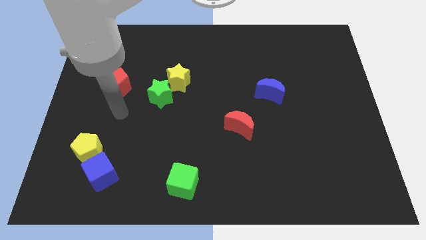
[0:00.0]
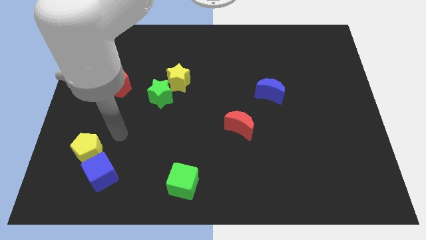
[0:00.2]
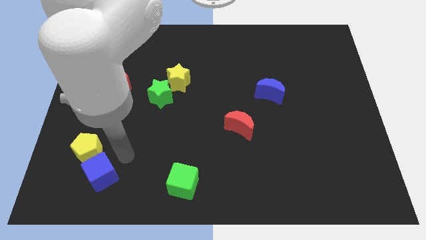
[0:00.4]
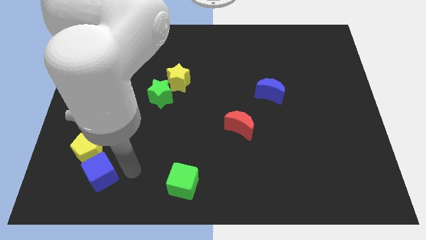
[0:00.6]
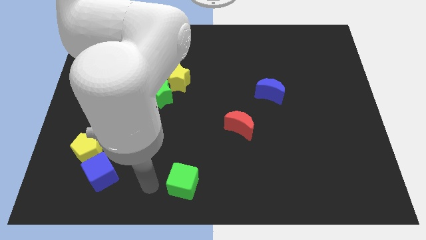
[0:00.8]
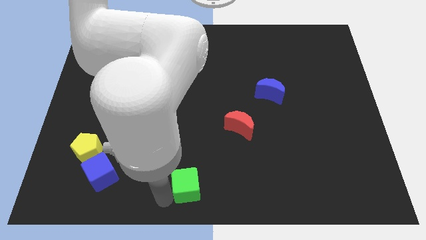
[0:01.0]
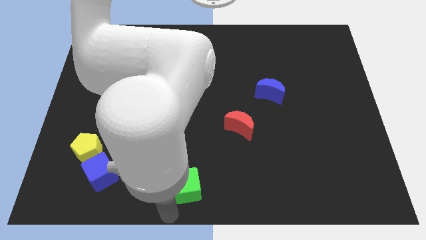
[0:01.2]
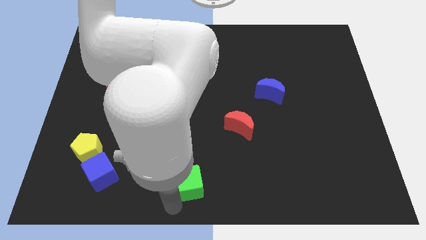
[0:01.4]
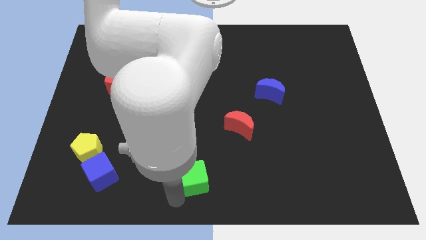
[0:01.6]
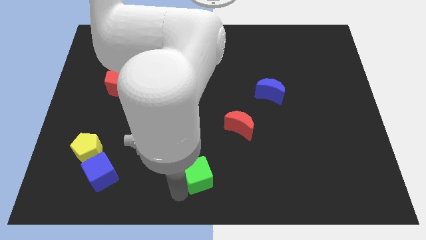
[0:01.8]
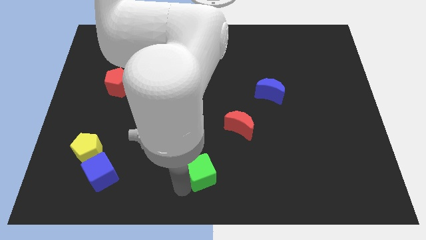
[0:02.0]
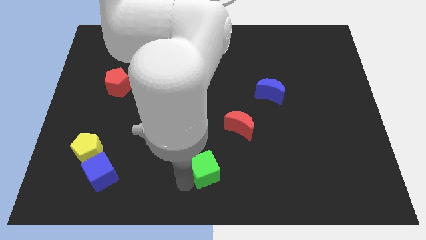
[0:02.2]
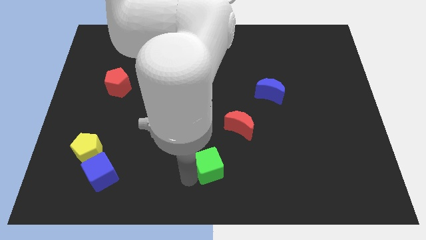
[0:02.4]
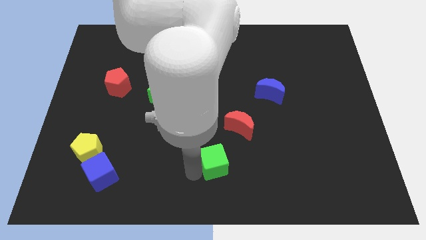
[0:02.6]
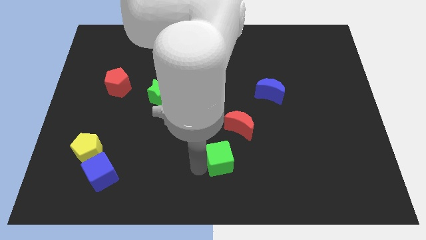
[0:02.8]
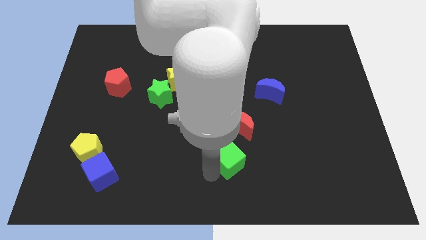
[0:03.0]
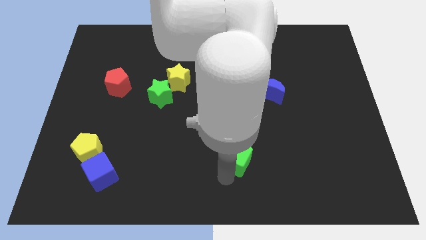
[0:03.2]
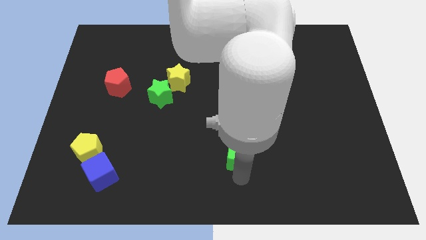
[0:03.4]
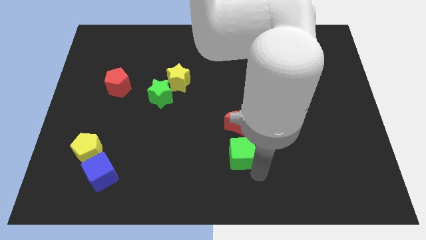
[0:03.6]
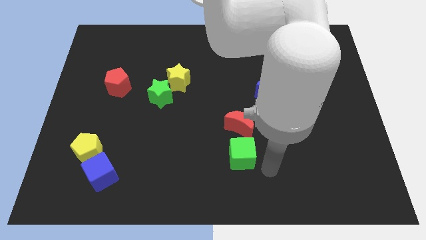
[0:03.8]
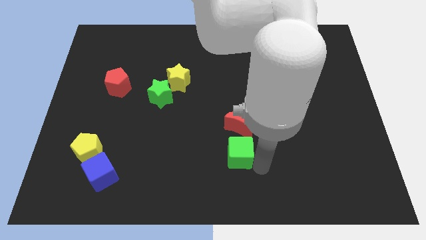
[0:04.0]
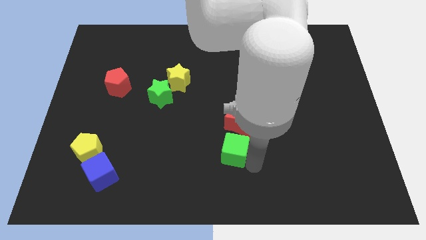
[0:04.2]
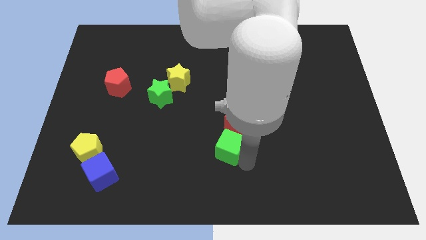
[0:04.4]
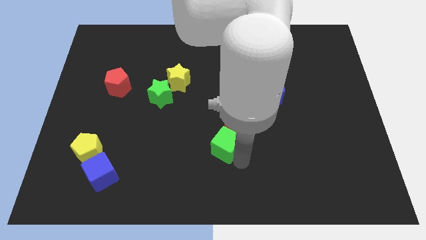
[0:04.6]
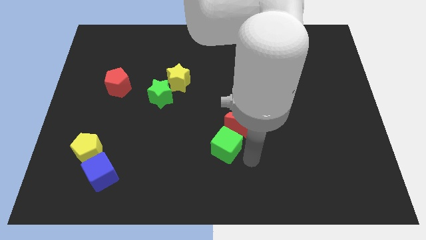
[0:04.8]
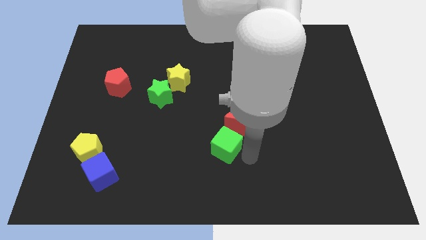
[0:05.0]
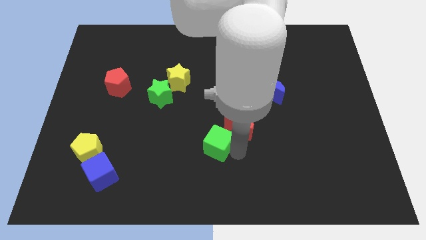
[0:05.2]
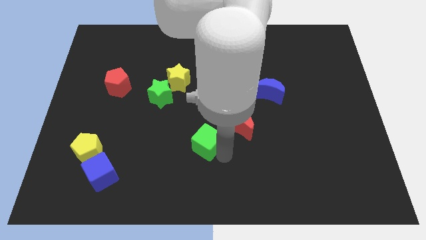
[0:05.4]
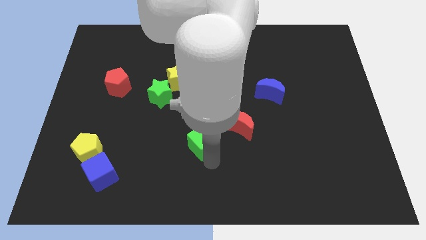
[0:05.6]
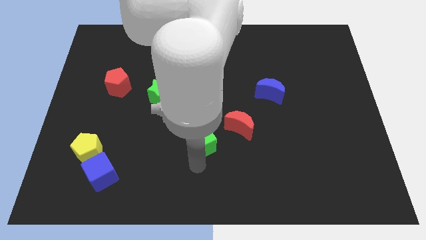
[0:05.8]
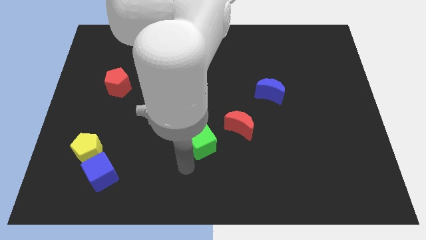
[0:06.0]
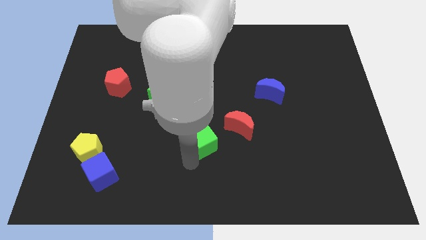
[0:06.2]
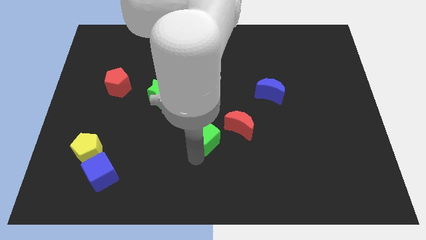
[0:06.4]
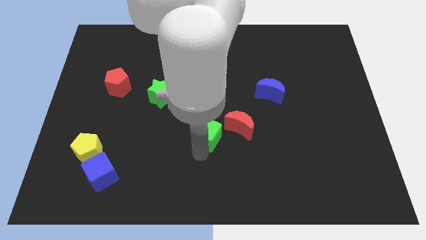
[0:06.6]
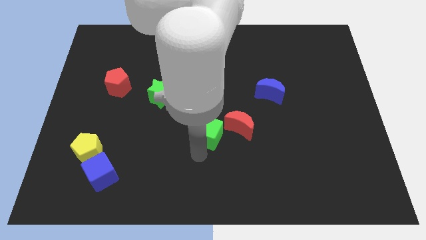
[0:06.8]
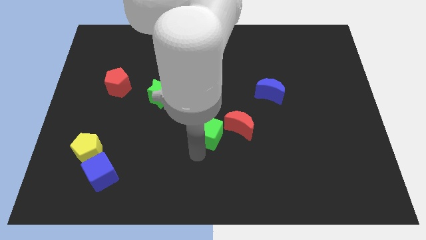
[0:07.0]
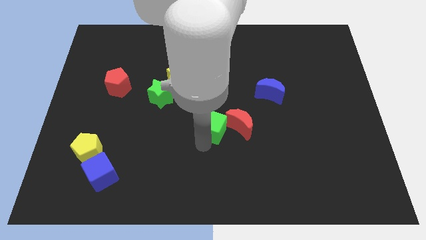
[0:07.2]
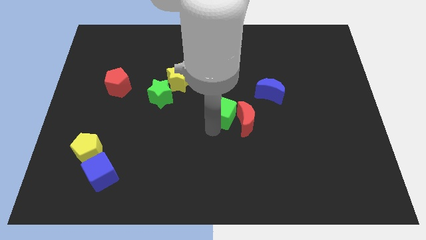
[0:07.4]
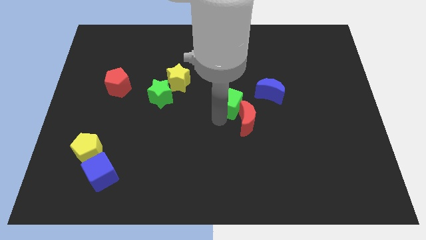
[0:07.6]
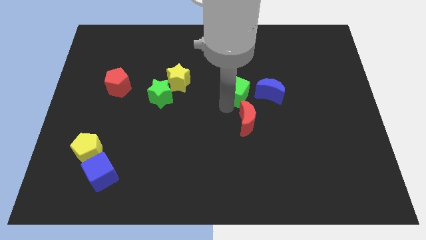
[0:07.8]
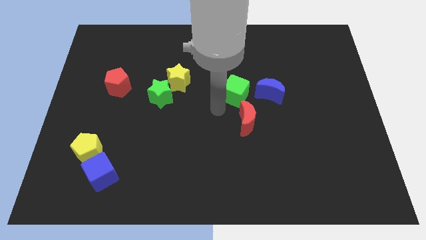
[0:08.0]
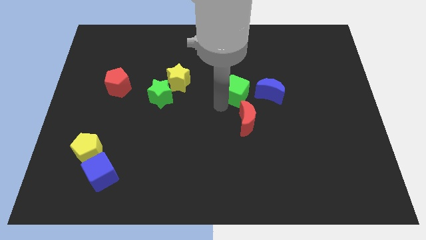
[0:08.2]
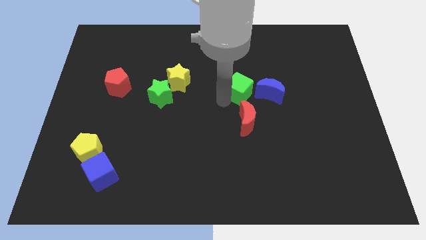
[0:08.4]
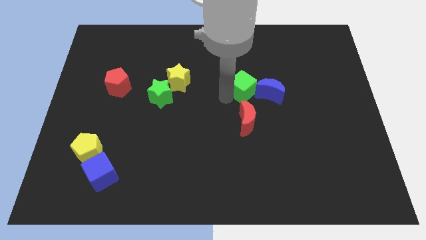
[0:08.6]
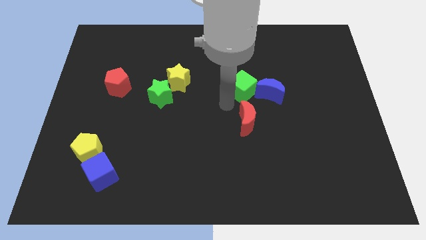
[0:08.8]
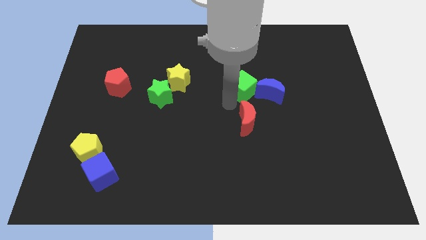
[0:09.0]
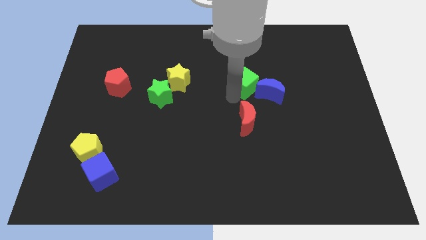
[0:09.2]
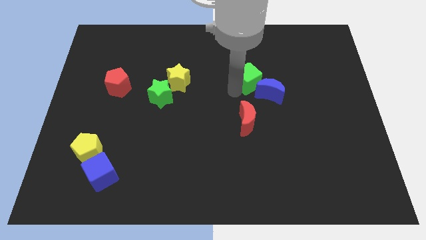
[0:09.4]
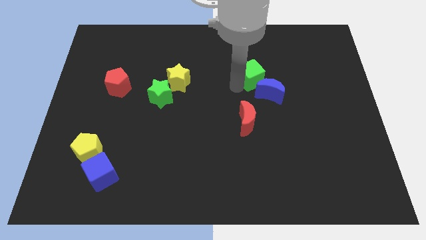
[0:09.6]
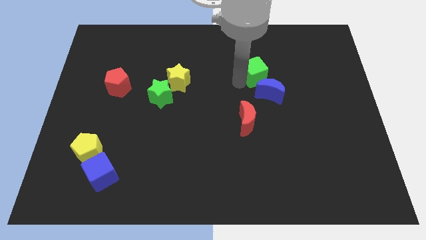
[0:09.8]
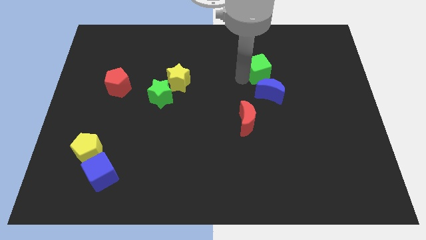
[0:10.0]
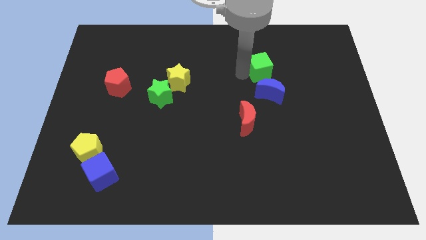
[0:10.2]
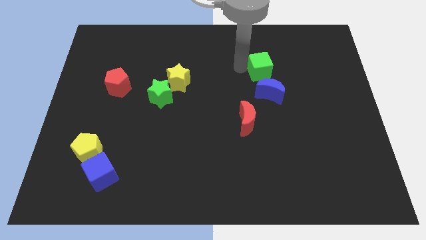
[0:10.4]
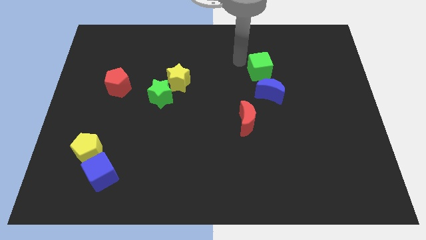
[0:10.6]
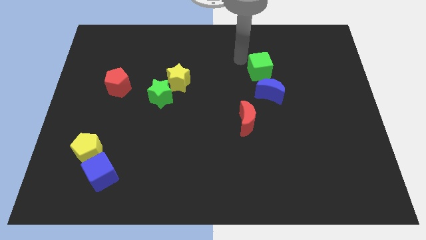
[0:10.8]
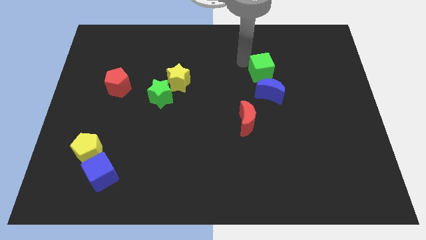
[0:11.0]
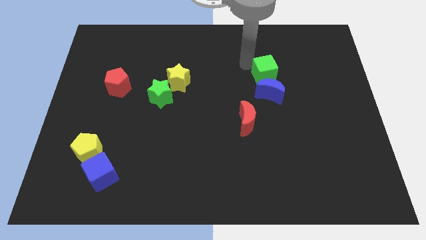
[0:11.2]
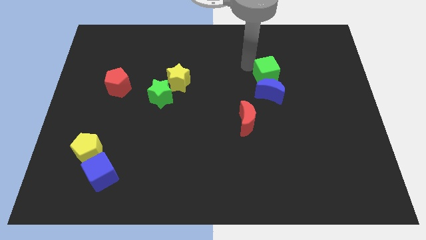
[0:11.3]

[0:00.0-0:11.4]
push the green cube diagonally up and to the right of the blue moon

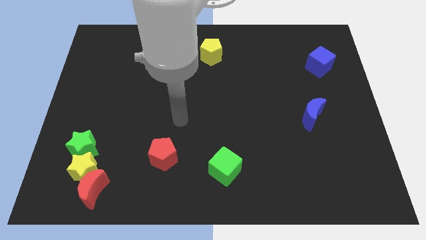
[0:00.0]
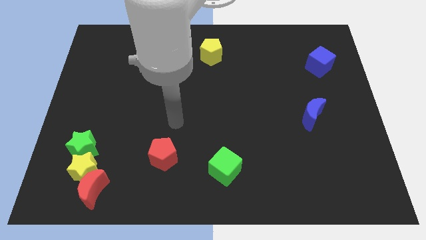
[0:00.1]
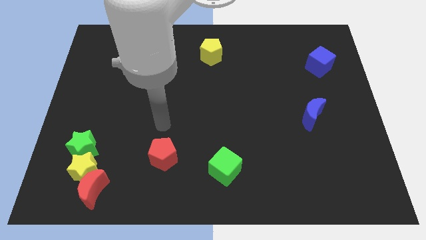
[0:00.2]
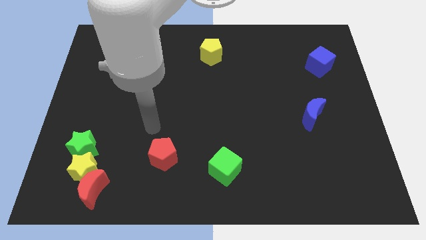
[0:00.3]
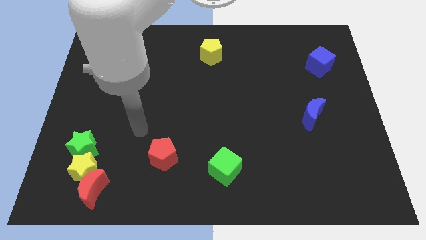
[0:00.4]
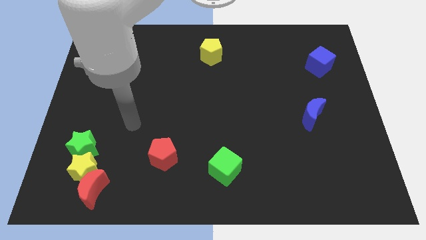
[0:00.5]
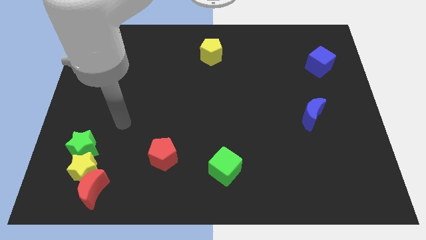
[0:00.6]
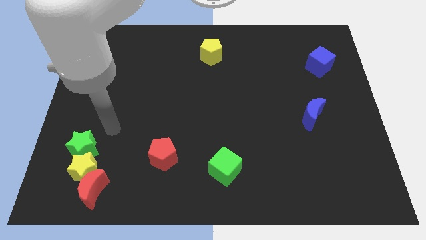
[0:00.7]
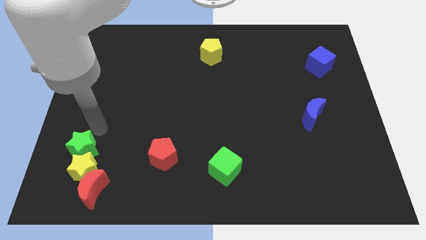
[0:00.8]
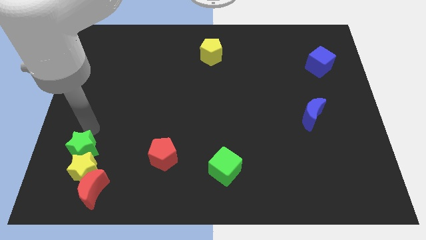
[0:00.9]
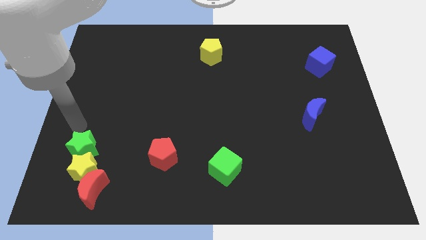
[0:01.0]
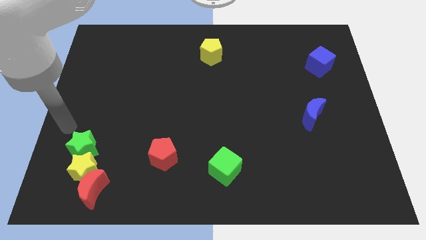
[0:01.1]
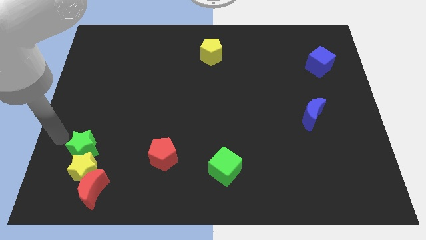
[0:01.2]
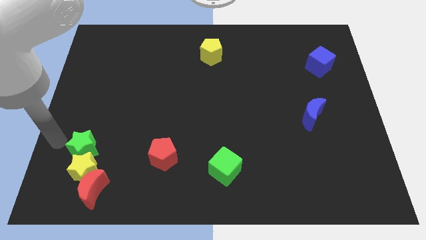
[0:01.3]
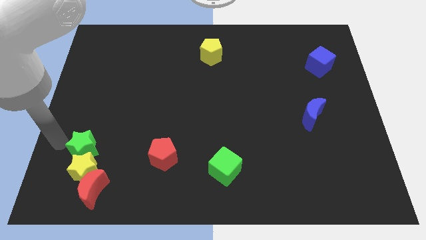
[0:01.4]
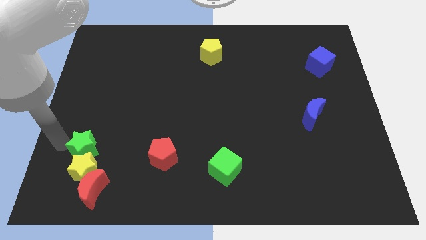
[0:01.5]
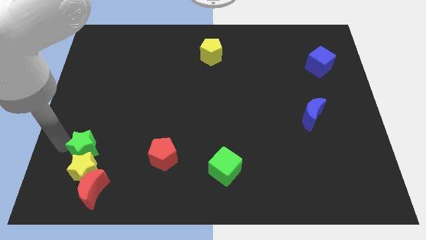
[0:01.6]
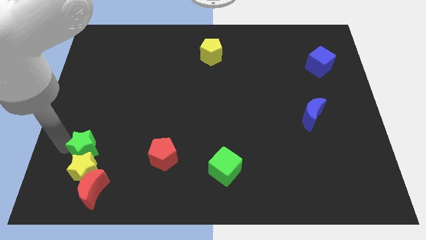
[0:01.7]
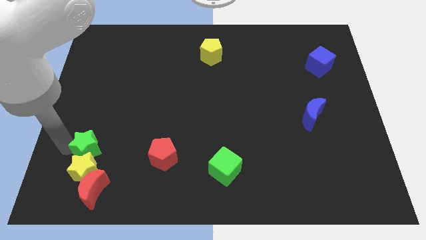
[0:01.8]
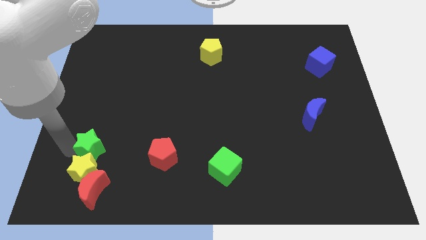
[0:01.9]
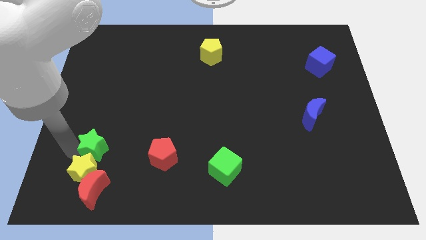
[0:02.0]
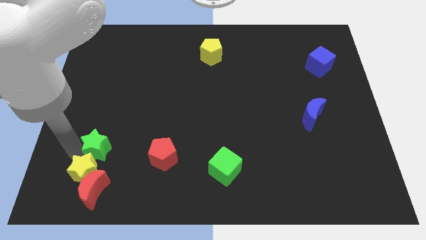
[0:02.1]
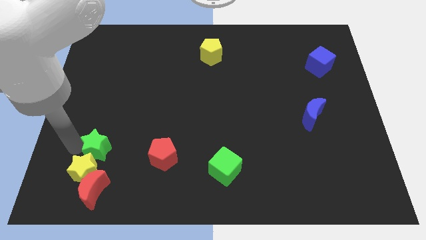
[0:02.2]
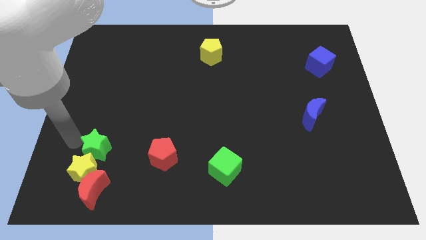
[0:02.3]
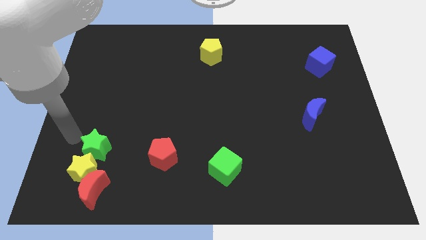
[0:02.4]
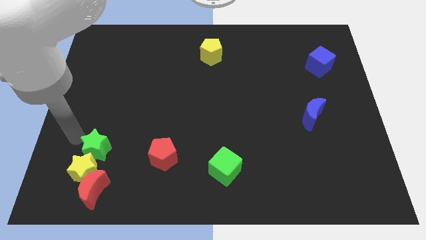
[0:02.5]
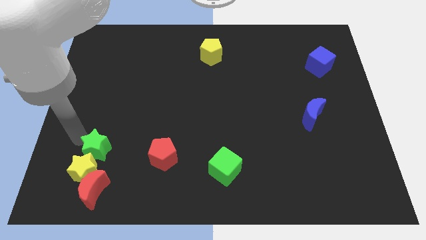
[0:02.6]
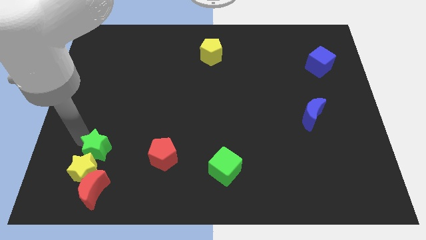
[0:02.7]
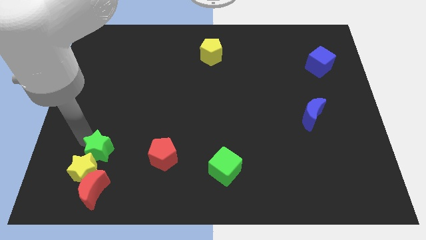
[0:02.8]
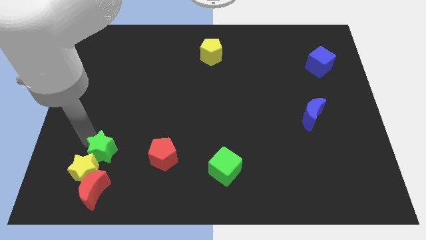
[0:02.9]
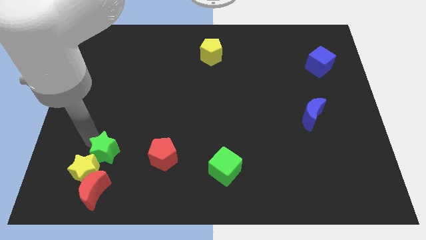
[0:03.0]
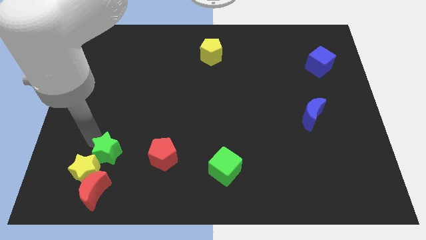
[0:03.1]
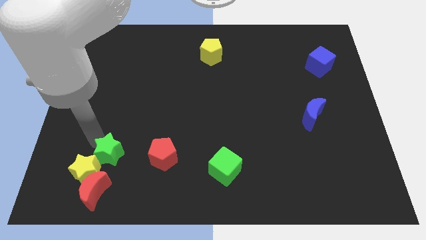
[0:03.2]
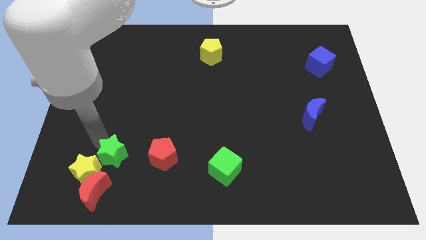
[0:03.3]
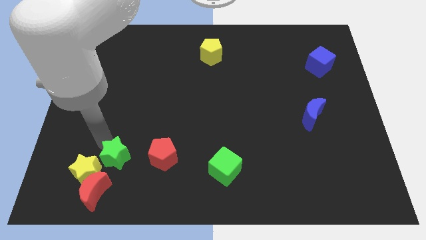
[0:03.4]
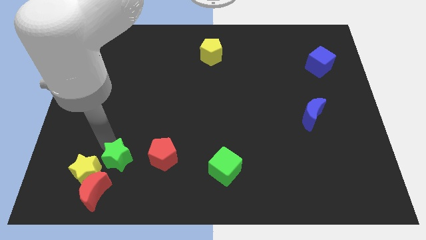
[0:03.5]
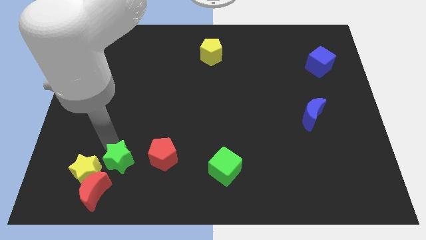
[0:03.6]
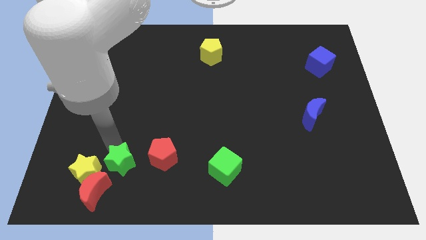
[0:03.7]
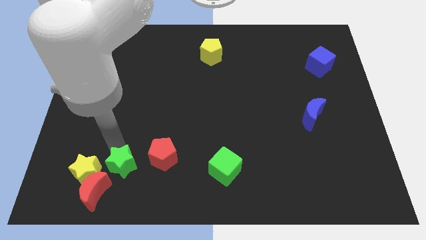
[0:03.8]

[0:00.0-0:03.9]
put the green star to the bottom left of the red pentagon
